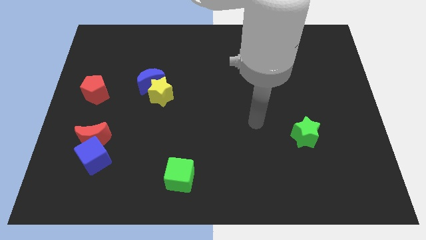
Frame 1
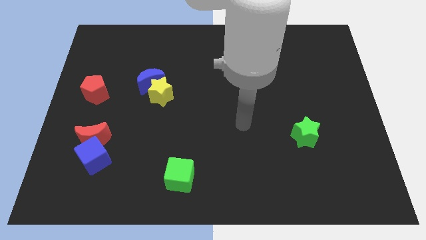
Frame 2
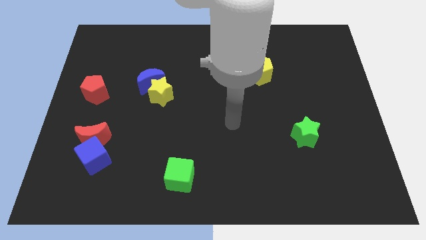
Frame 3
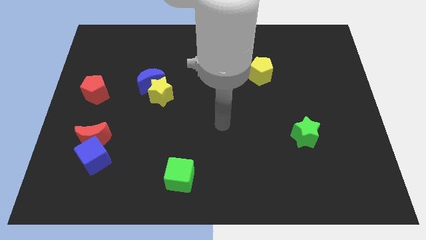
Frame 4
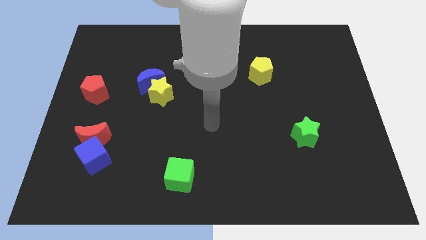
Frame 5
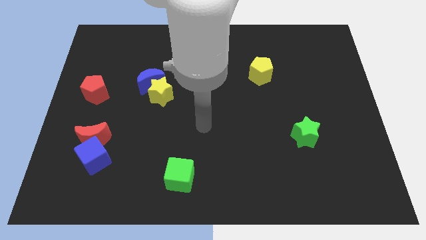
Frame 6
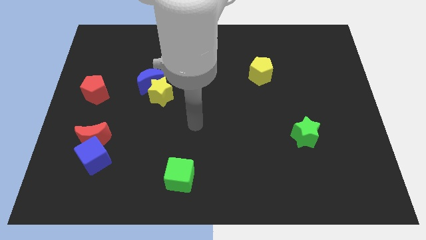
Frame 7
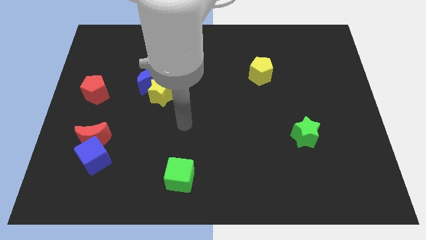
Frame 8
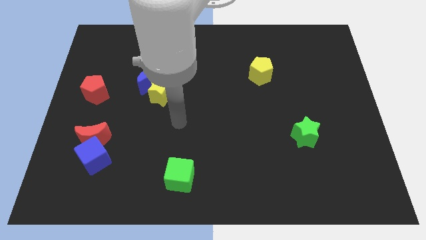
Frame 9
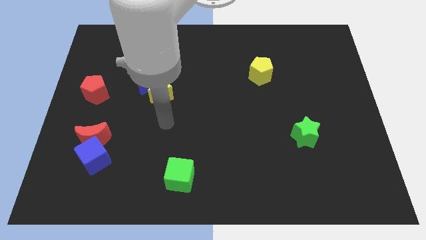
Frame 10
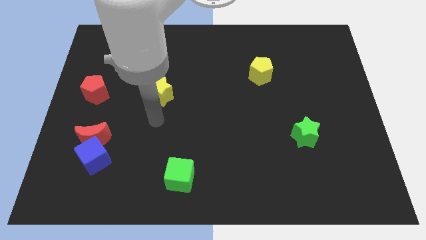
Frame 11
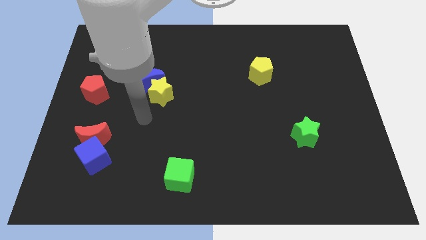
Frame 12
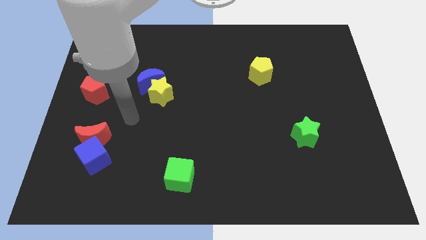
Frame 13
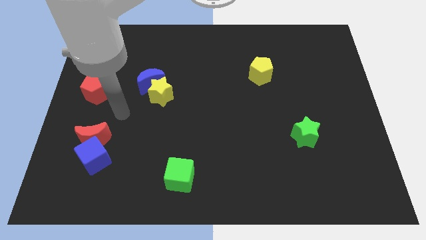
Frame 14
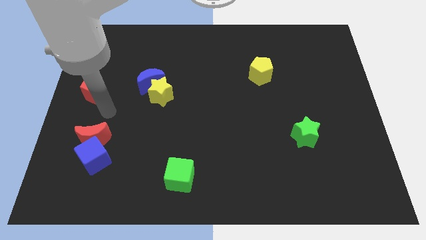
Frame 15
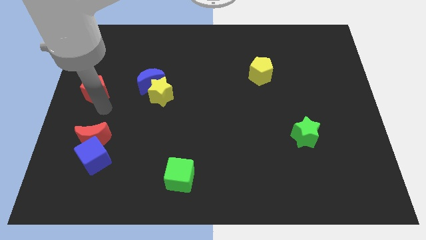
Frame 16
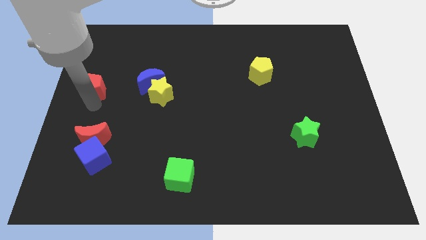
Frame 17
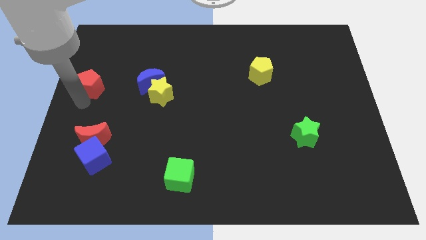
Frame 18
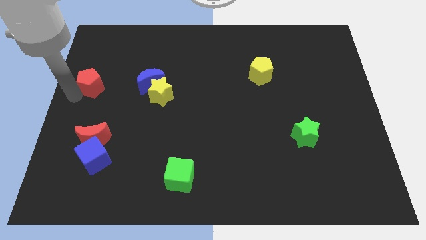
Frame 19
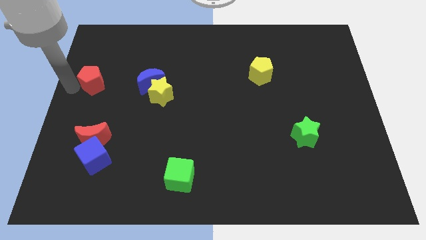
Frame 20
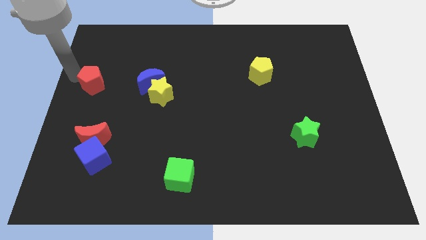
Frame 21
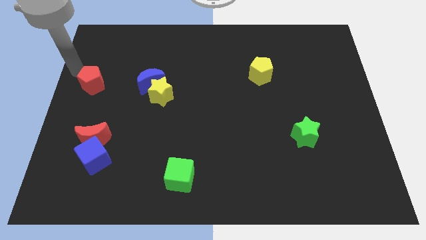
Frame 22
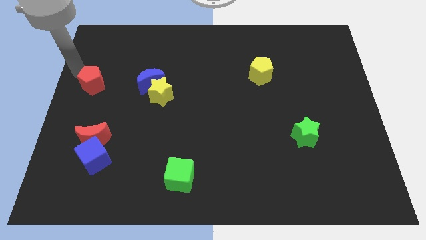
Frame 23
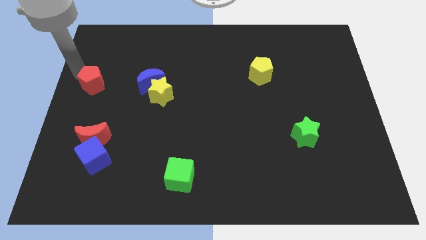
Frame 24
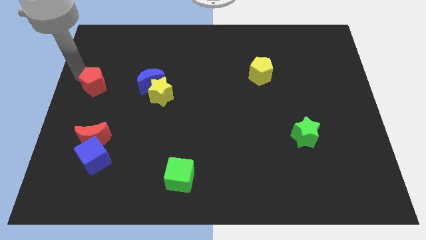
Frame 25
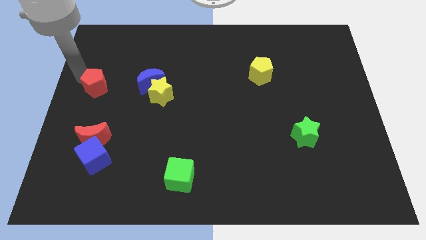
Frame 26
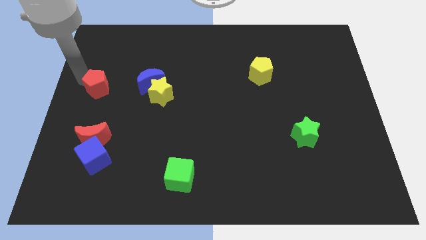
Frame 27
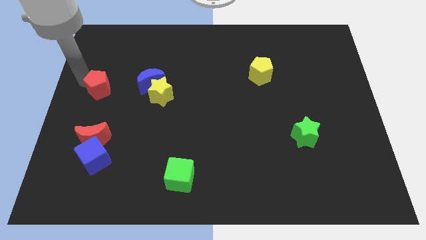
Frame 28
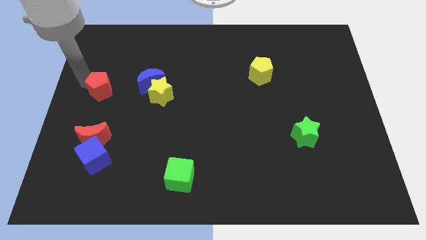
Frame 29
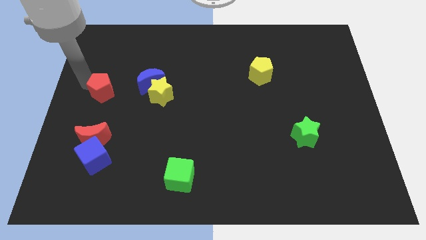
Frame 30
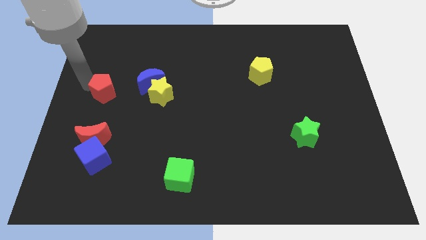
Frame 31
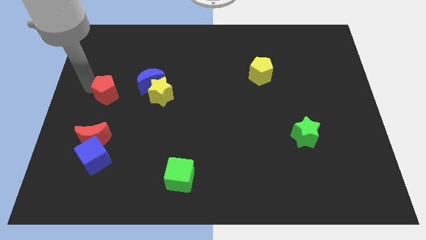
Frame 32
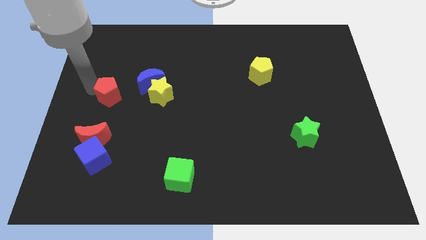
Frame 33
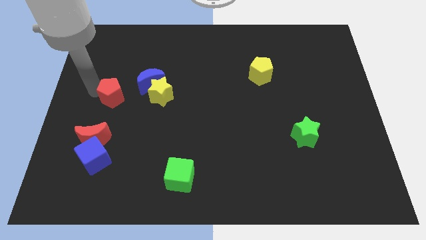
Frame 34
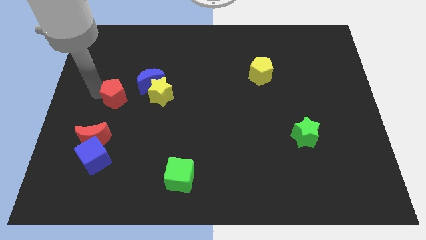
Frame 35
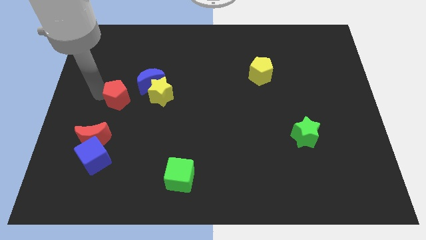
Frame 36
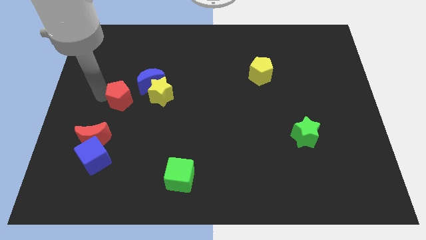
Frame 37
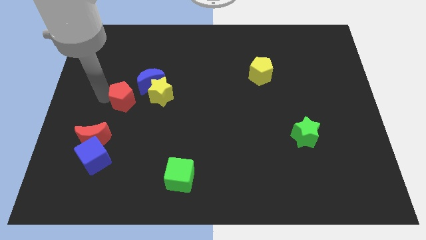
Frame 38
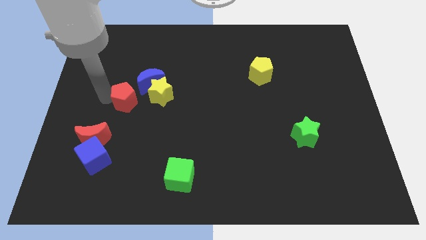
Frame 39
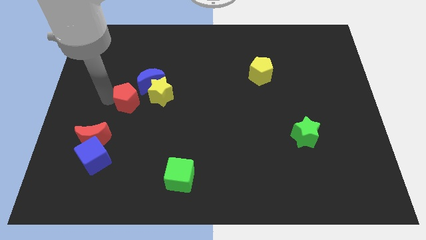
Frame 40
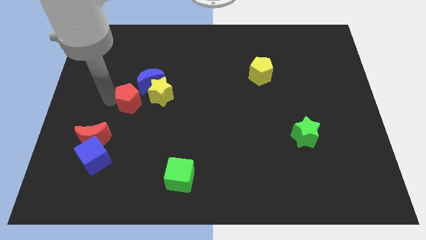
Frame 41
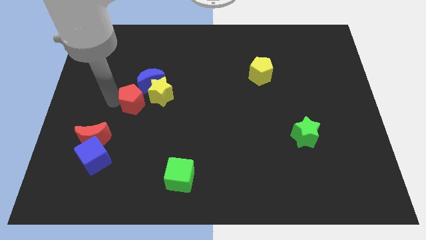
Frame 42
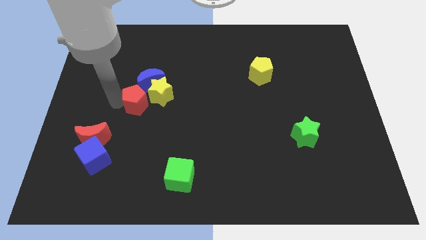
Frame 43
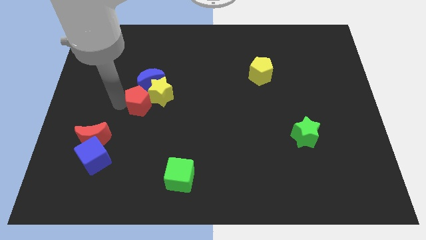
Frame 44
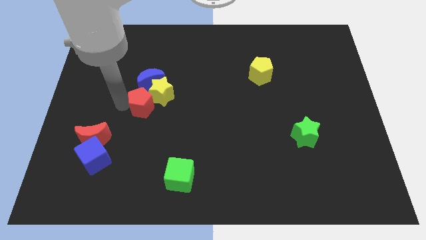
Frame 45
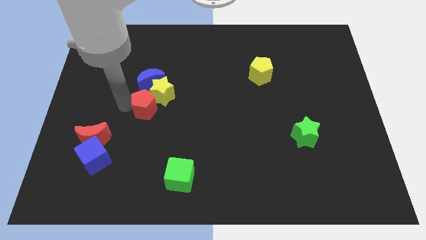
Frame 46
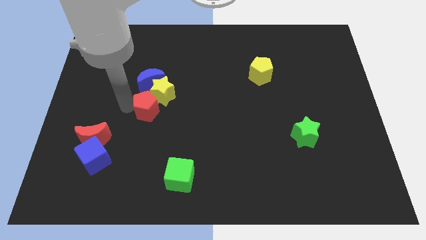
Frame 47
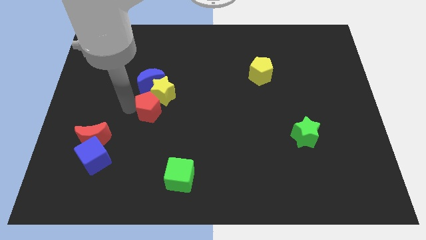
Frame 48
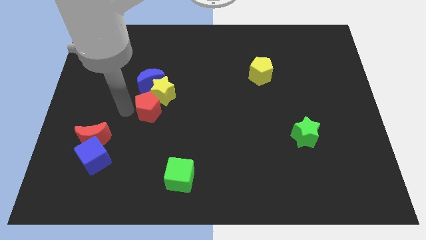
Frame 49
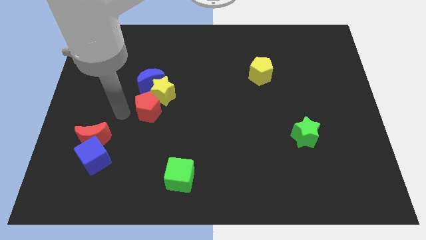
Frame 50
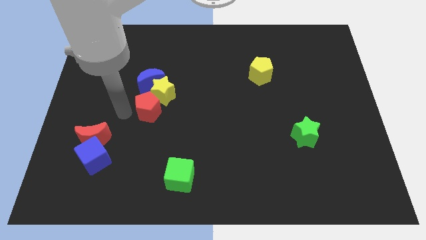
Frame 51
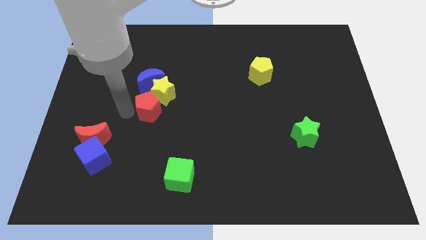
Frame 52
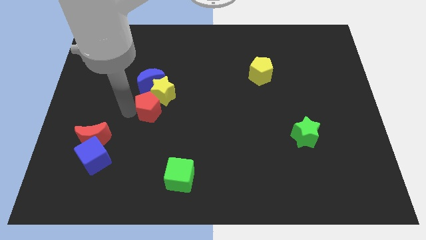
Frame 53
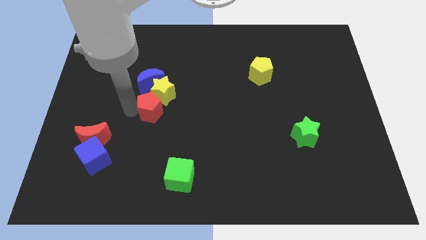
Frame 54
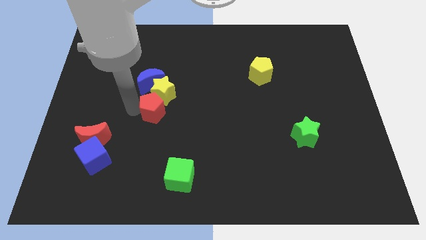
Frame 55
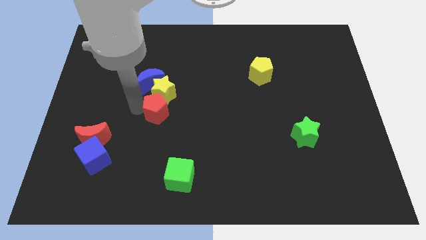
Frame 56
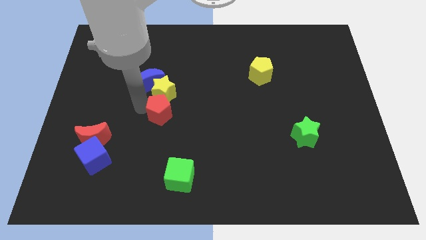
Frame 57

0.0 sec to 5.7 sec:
push the red pentagon to the middle

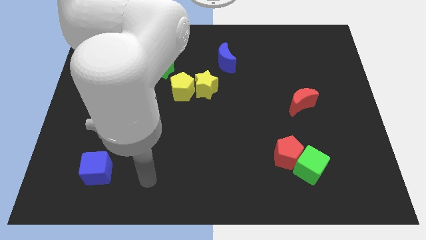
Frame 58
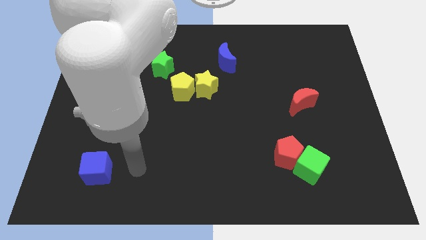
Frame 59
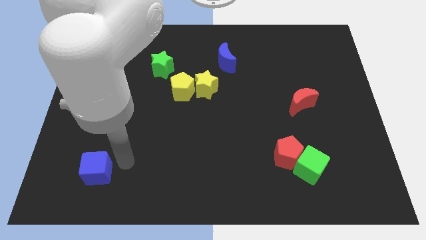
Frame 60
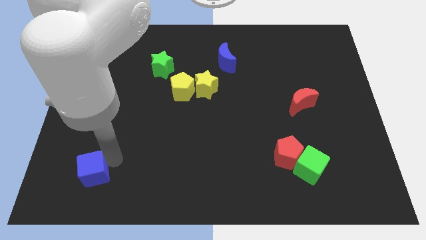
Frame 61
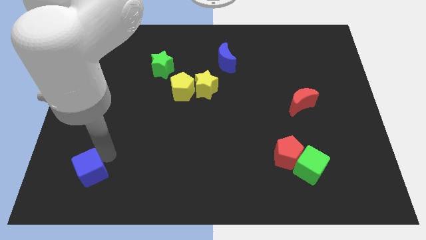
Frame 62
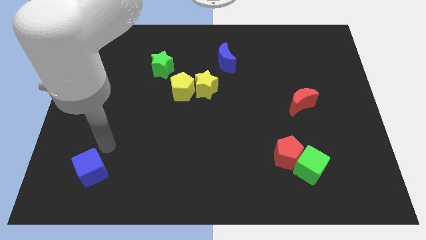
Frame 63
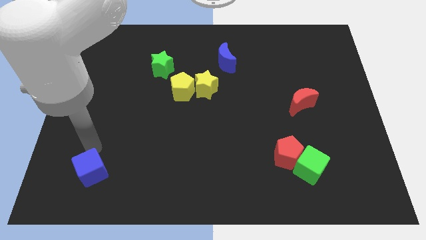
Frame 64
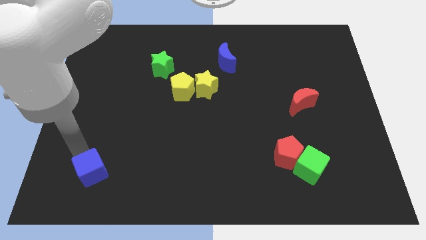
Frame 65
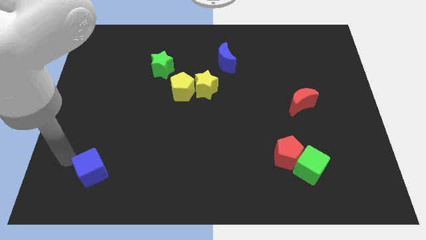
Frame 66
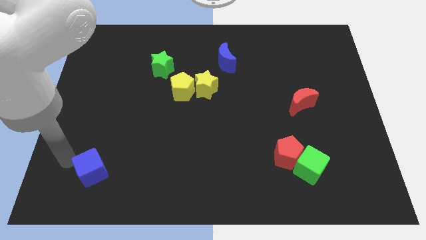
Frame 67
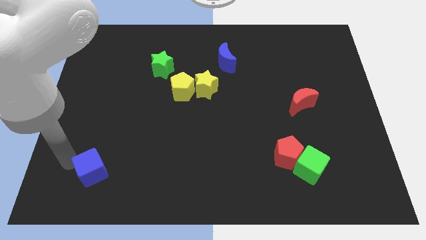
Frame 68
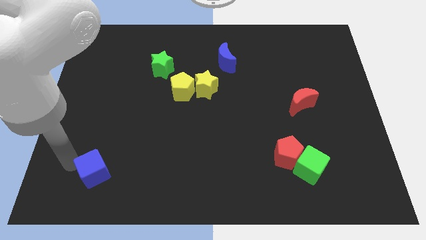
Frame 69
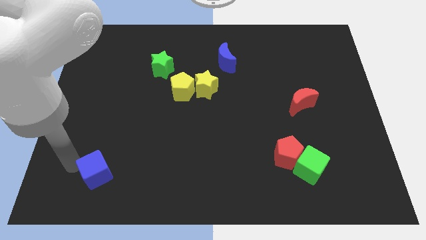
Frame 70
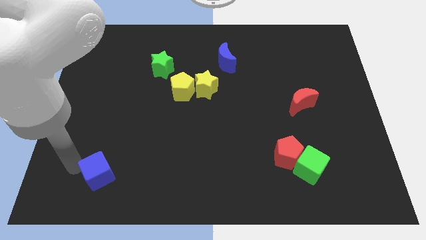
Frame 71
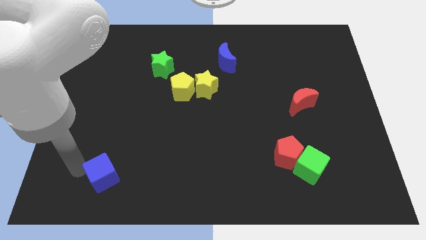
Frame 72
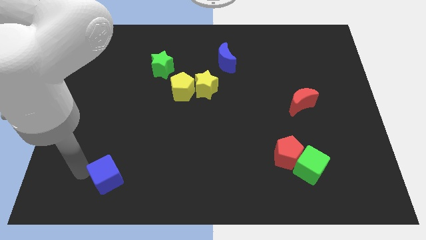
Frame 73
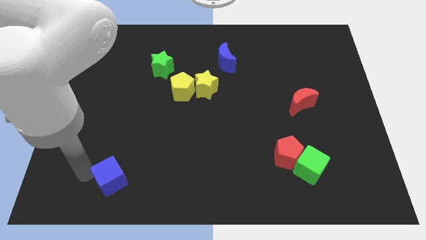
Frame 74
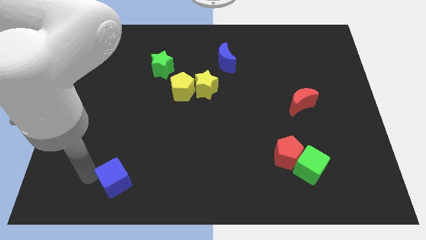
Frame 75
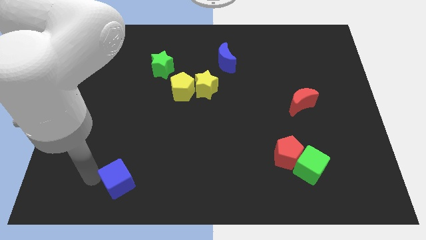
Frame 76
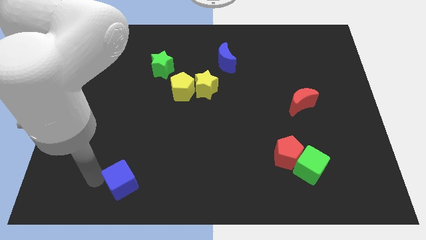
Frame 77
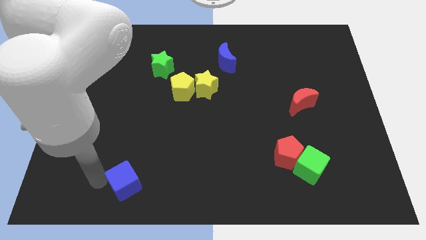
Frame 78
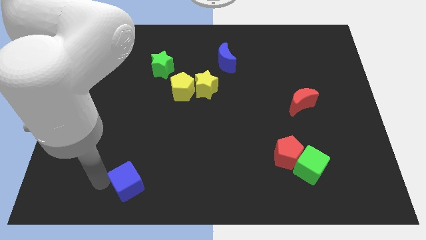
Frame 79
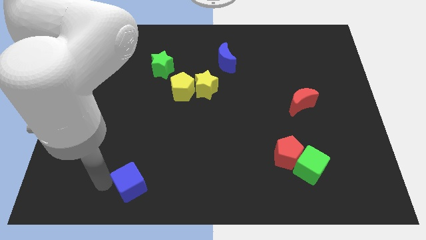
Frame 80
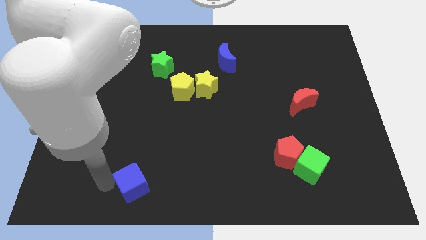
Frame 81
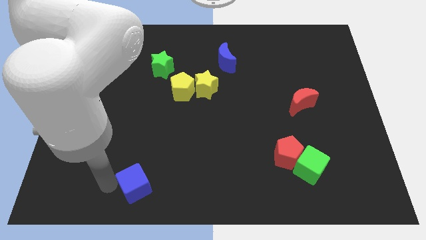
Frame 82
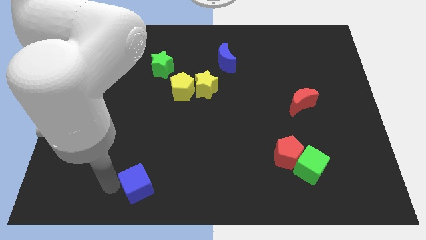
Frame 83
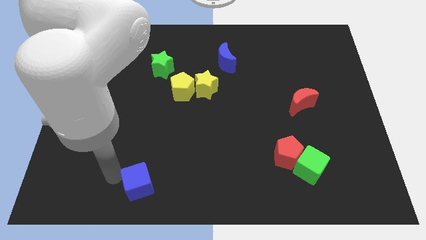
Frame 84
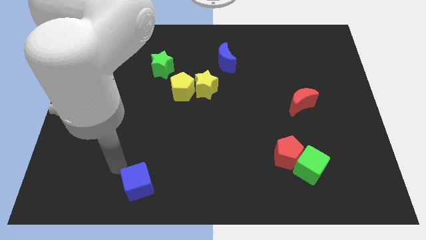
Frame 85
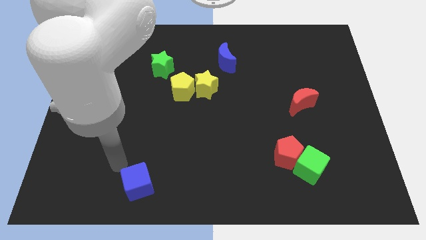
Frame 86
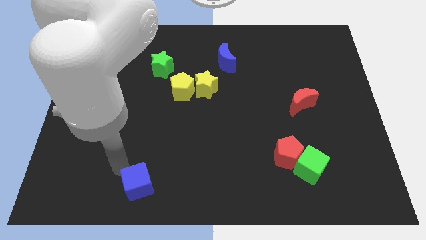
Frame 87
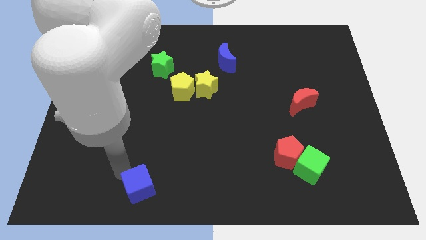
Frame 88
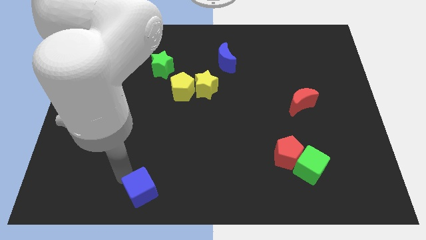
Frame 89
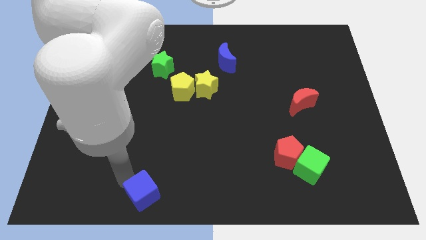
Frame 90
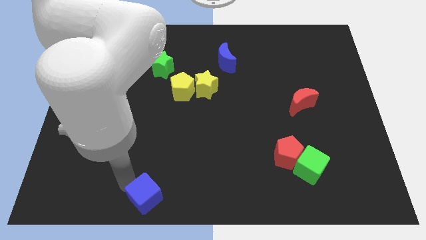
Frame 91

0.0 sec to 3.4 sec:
move the blue cube to the bottom
